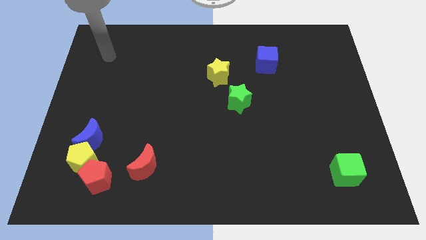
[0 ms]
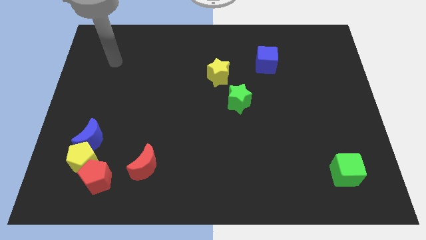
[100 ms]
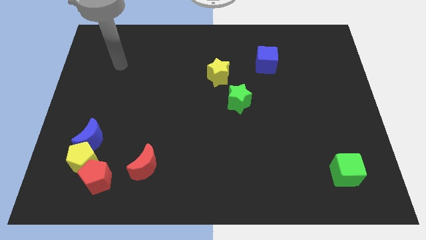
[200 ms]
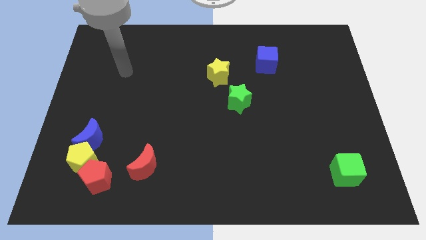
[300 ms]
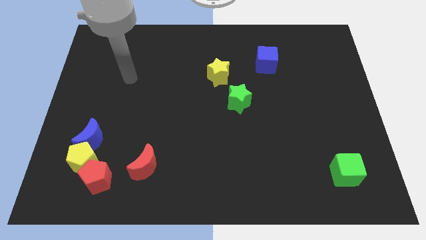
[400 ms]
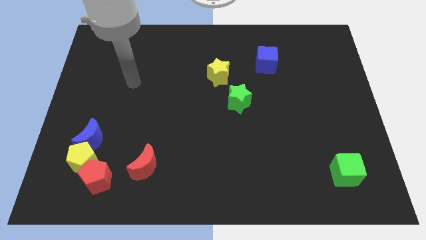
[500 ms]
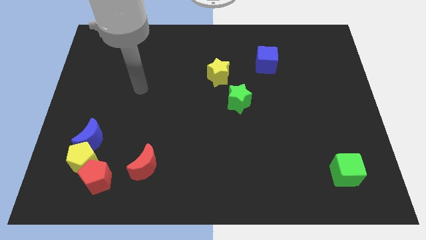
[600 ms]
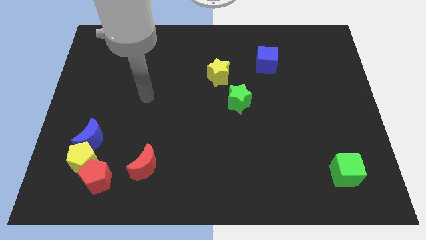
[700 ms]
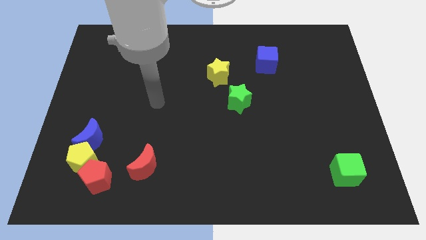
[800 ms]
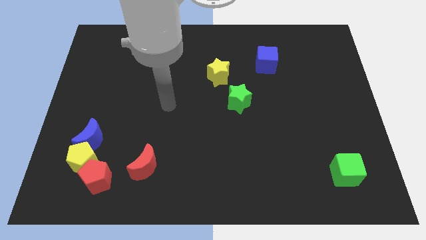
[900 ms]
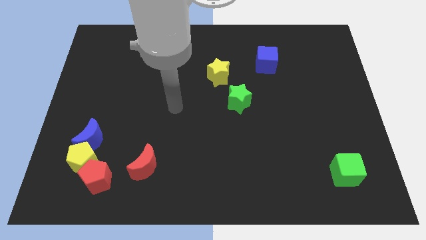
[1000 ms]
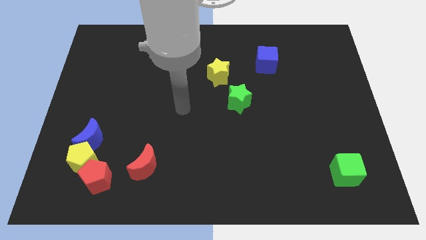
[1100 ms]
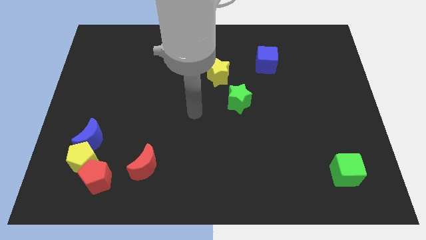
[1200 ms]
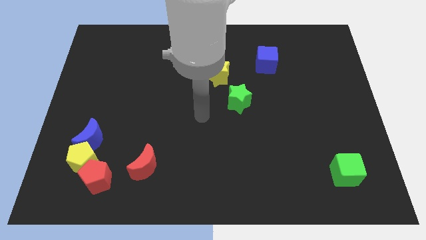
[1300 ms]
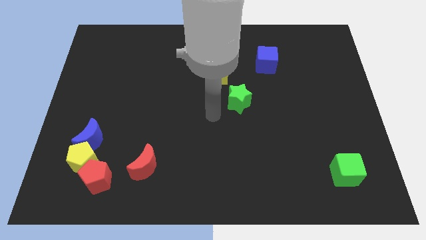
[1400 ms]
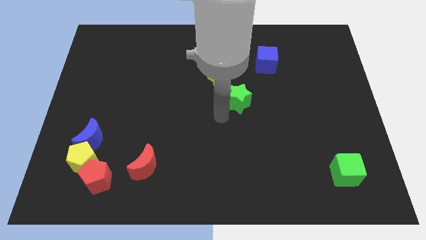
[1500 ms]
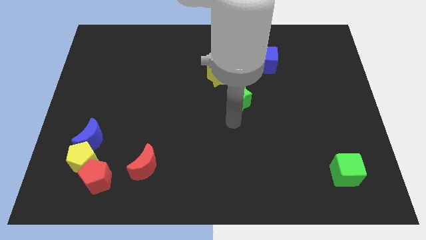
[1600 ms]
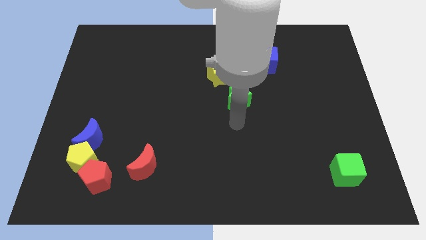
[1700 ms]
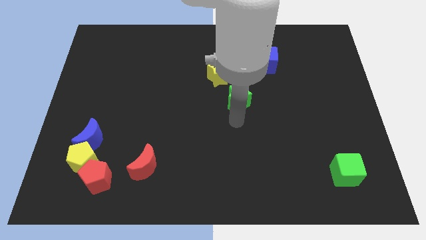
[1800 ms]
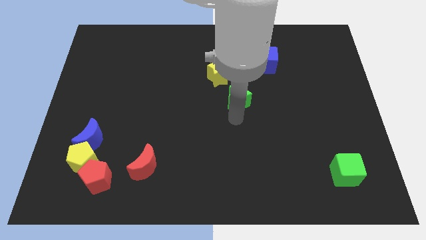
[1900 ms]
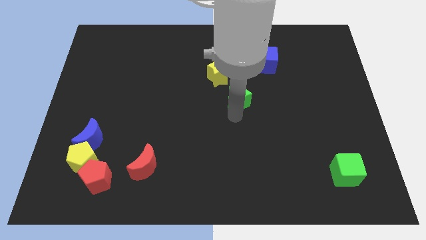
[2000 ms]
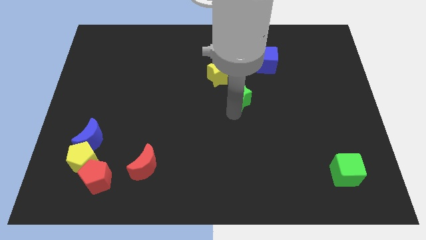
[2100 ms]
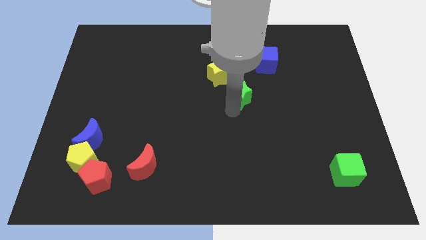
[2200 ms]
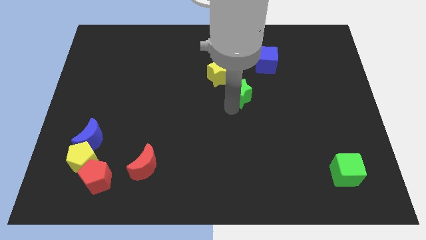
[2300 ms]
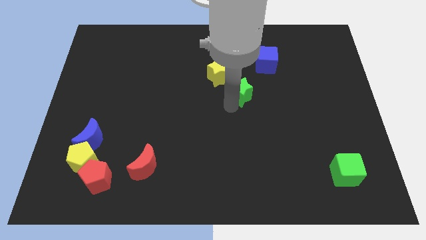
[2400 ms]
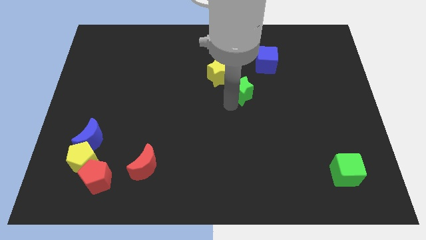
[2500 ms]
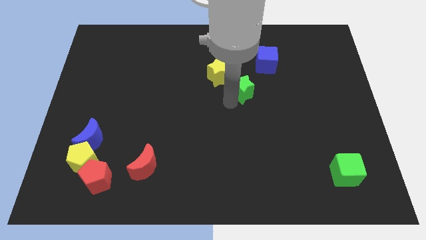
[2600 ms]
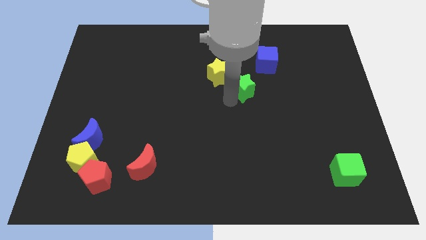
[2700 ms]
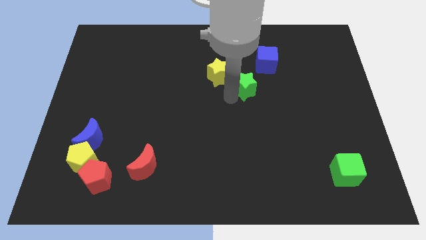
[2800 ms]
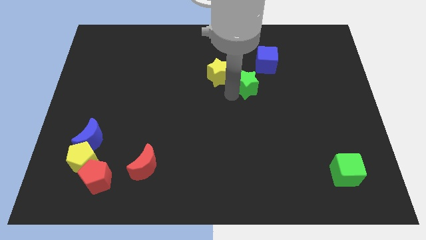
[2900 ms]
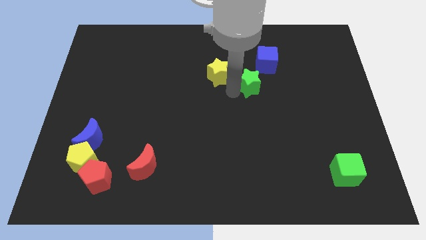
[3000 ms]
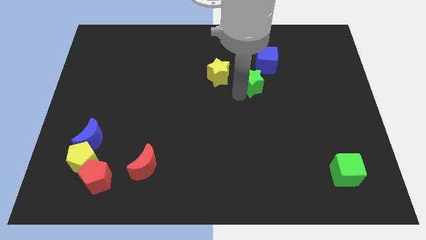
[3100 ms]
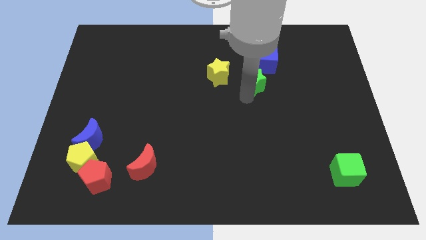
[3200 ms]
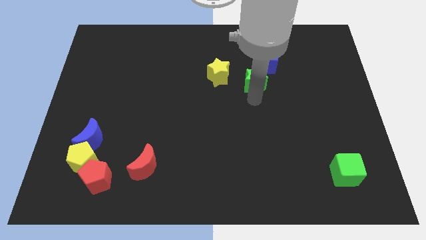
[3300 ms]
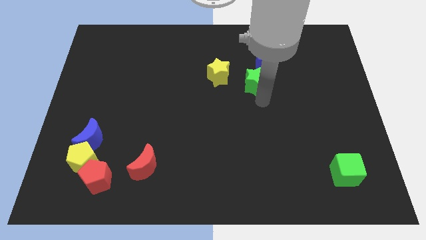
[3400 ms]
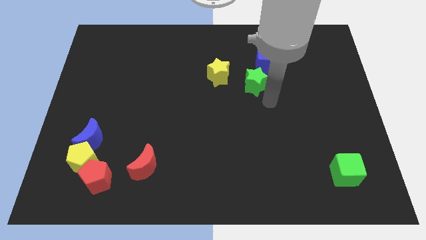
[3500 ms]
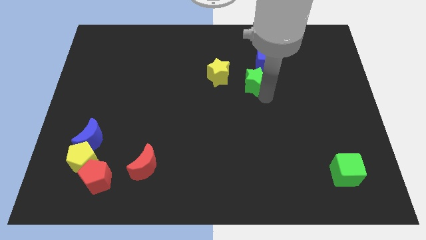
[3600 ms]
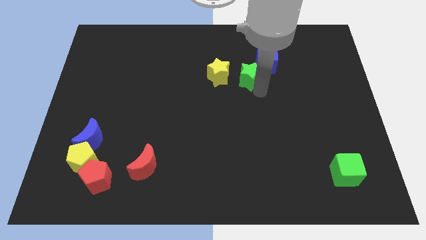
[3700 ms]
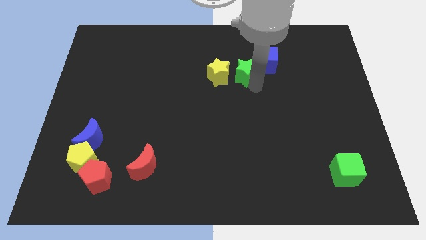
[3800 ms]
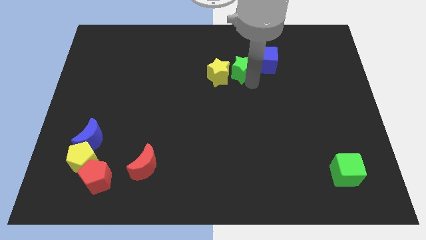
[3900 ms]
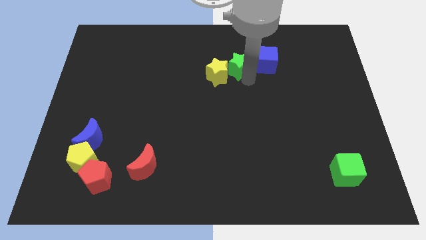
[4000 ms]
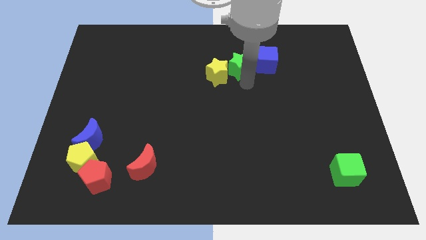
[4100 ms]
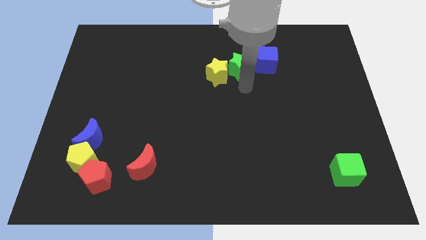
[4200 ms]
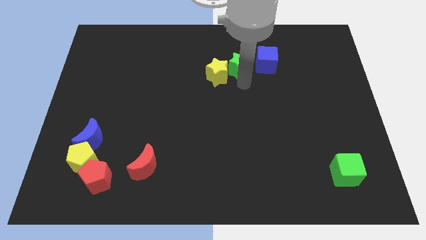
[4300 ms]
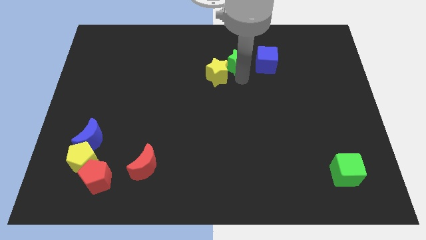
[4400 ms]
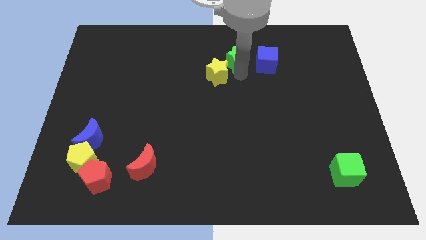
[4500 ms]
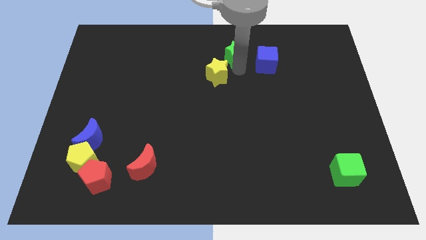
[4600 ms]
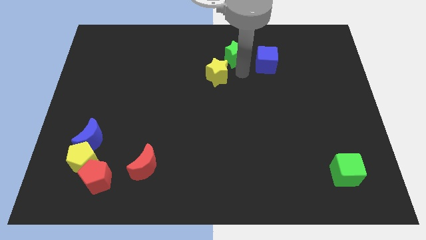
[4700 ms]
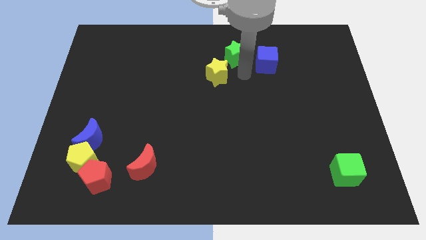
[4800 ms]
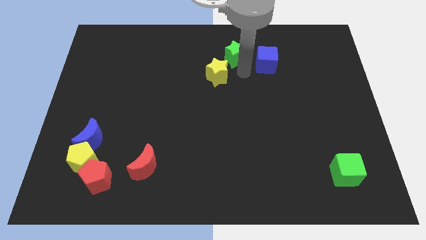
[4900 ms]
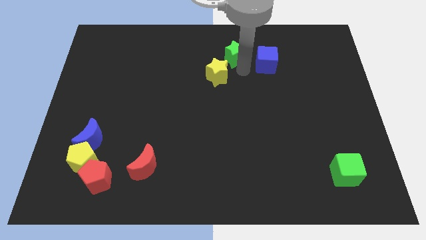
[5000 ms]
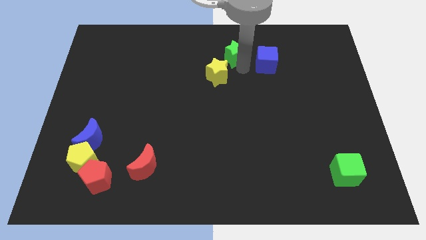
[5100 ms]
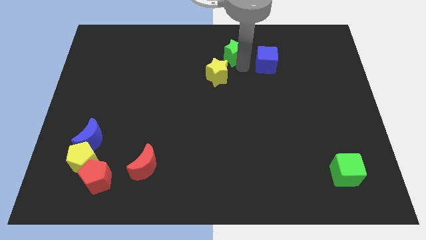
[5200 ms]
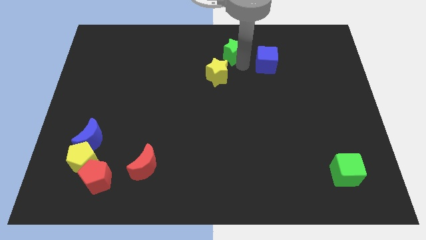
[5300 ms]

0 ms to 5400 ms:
slide the green star to the top side

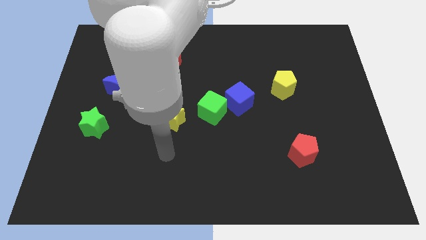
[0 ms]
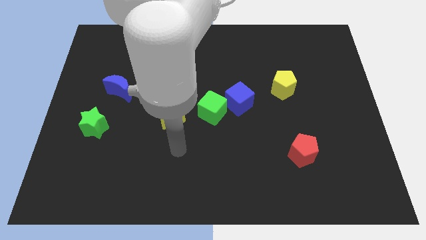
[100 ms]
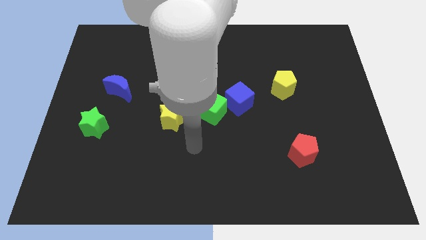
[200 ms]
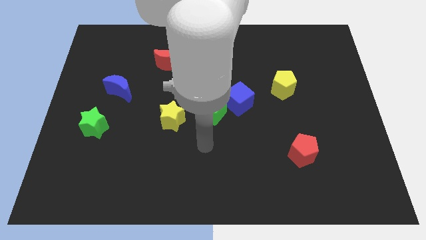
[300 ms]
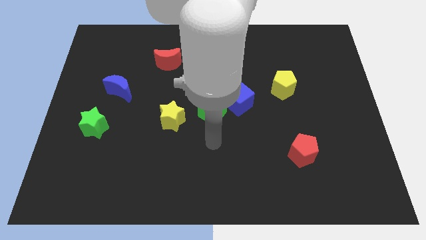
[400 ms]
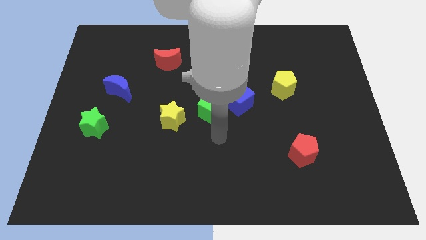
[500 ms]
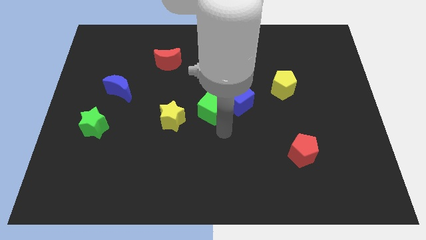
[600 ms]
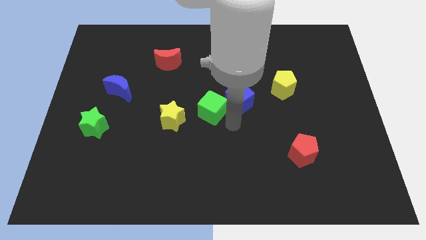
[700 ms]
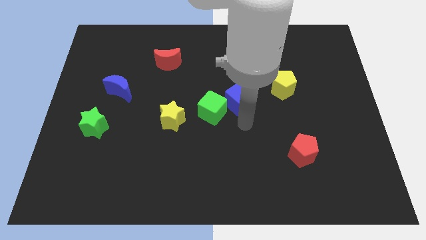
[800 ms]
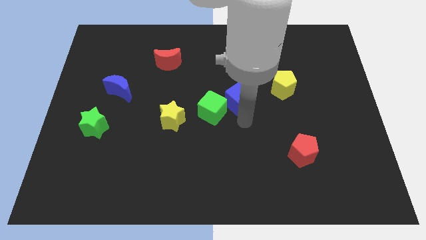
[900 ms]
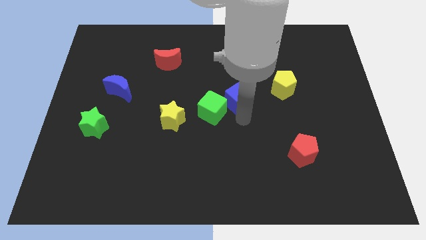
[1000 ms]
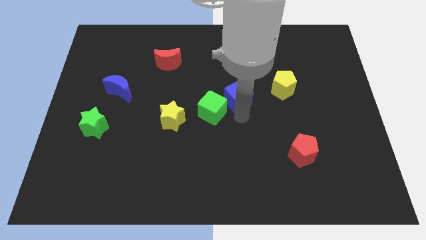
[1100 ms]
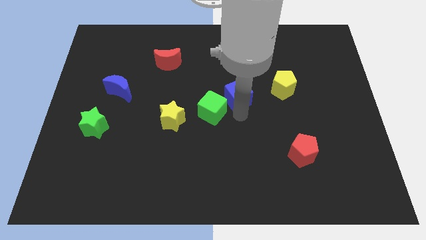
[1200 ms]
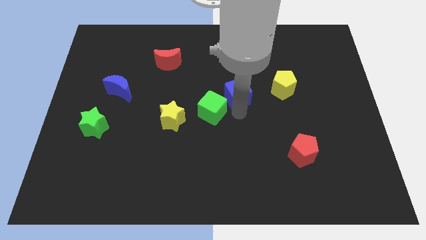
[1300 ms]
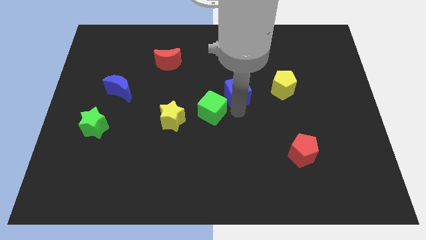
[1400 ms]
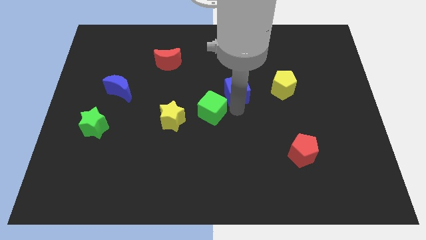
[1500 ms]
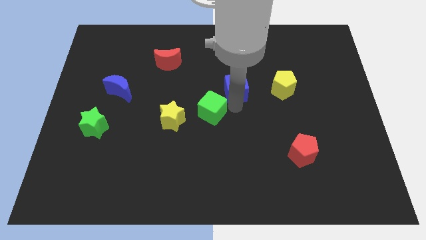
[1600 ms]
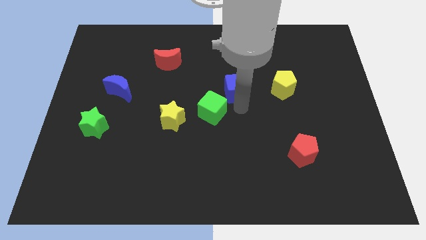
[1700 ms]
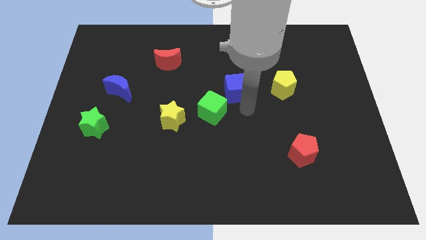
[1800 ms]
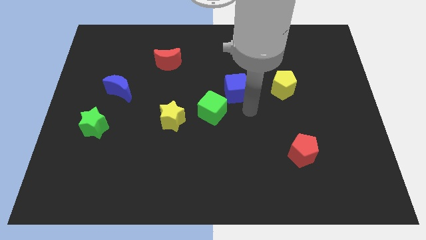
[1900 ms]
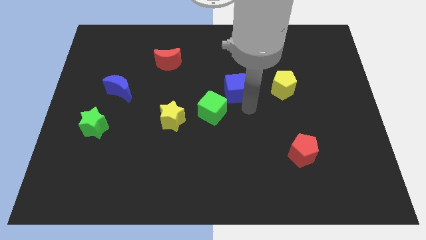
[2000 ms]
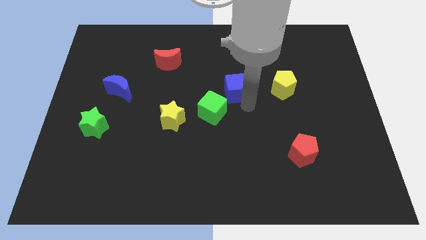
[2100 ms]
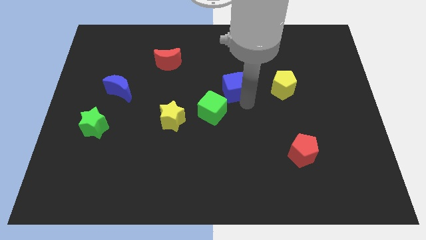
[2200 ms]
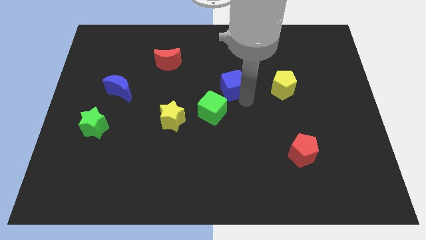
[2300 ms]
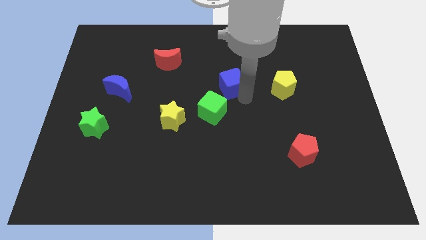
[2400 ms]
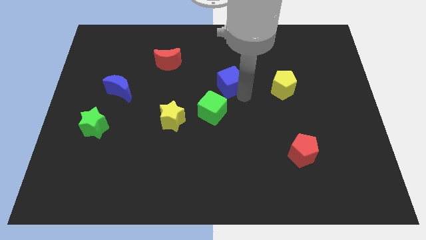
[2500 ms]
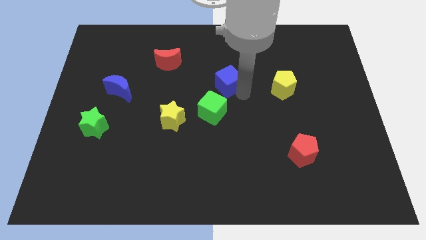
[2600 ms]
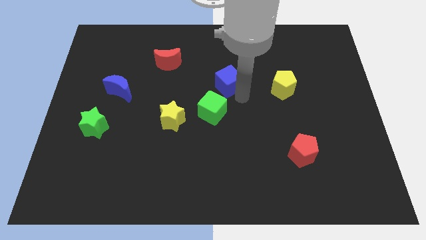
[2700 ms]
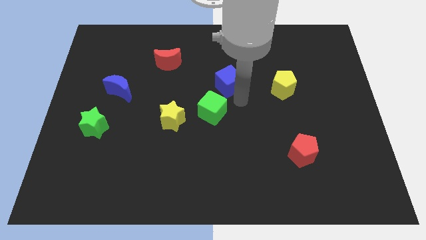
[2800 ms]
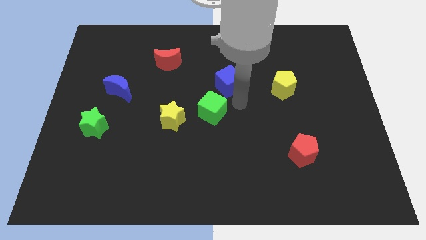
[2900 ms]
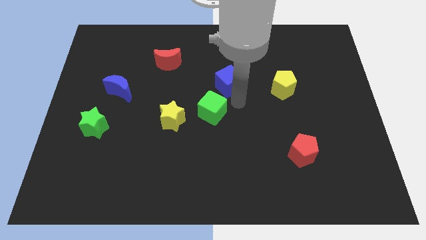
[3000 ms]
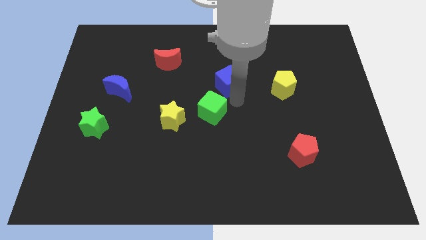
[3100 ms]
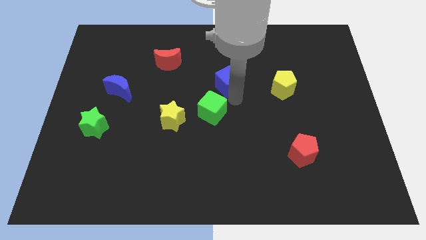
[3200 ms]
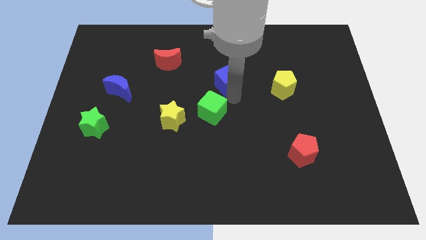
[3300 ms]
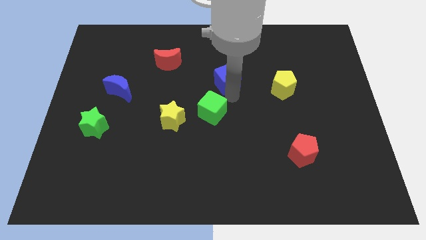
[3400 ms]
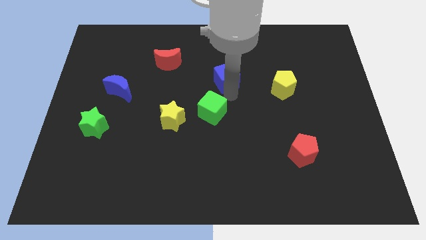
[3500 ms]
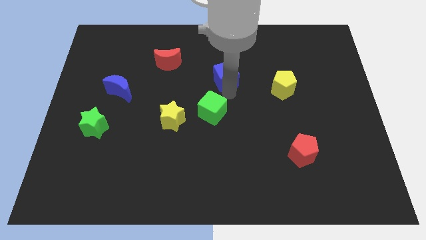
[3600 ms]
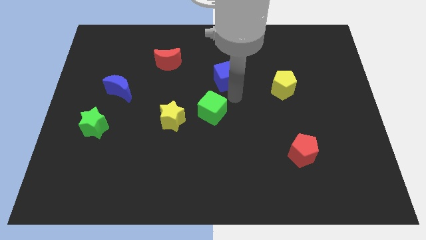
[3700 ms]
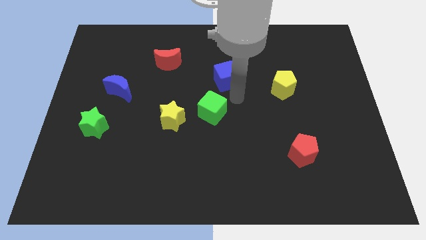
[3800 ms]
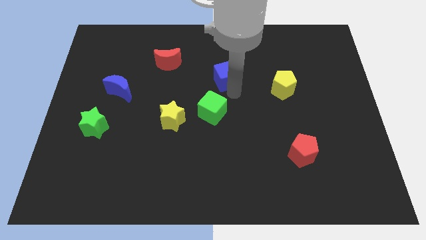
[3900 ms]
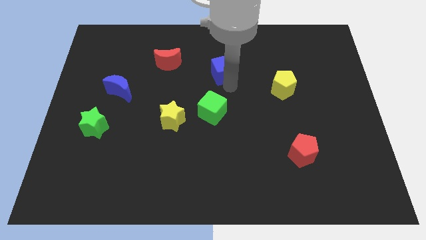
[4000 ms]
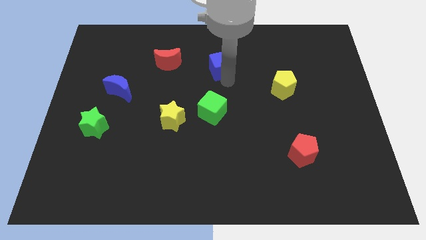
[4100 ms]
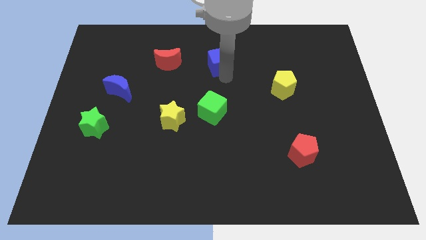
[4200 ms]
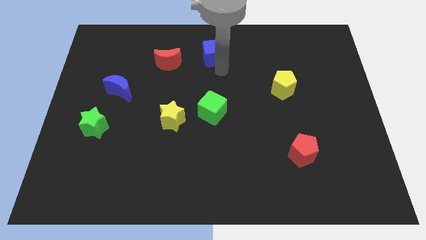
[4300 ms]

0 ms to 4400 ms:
move the blue cube to the towards your base
